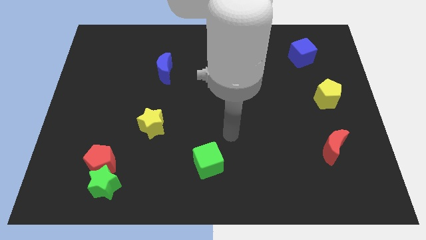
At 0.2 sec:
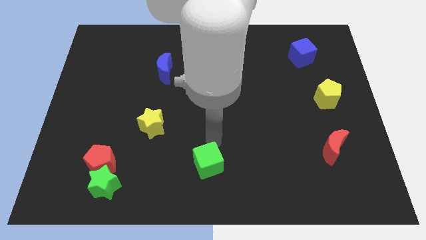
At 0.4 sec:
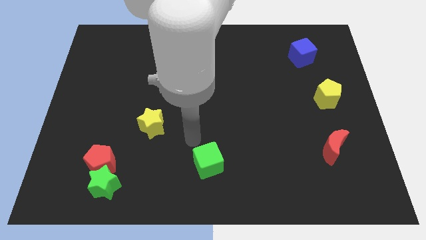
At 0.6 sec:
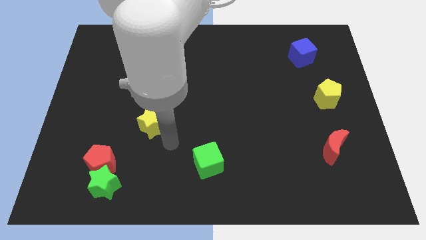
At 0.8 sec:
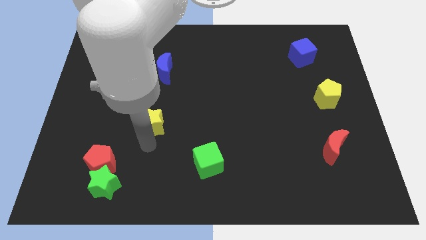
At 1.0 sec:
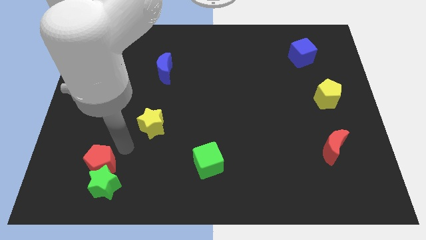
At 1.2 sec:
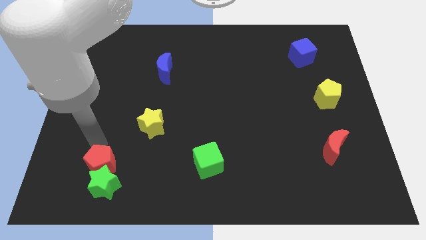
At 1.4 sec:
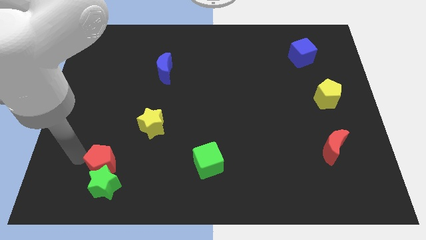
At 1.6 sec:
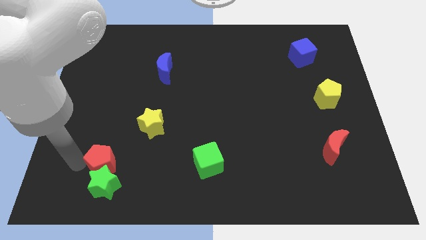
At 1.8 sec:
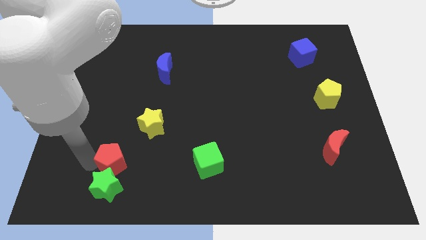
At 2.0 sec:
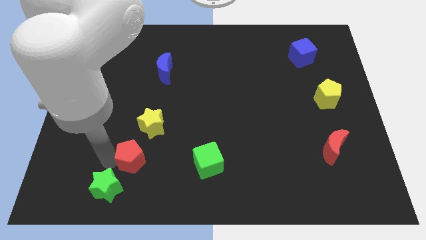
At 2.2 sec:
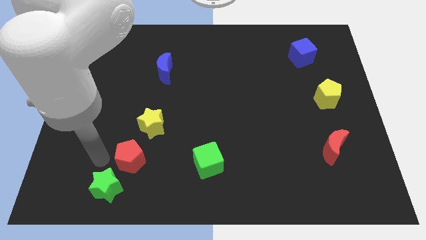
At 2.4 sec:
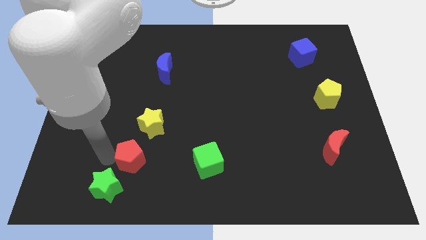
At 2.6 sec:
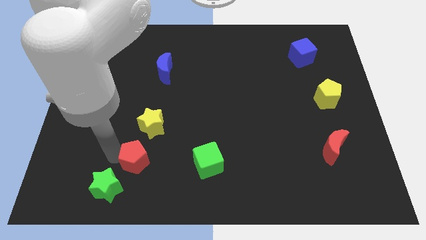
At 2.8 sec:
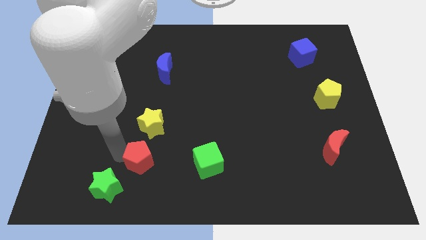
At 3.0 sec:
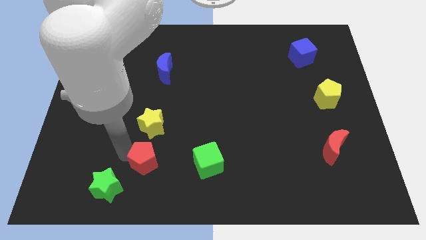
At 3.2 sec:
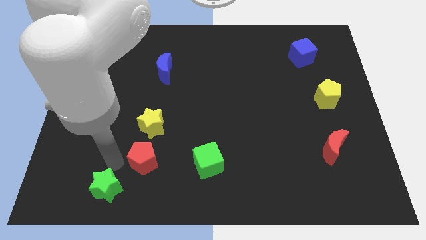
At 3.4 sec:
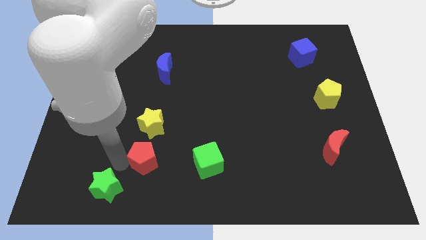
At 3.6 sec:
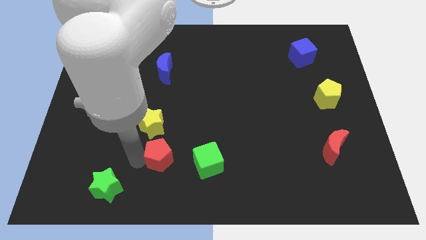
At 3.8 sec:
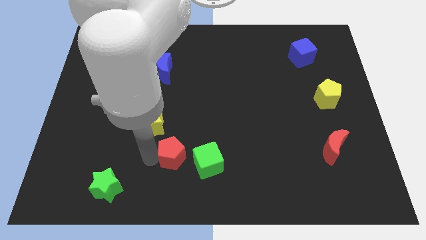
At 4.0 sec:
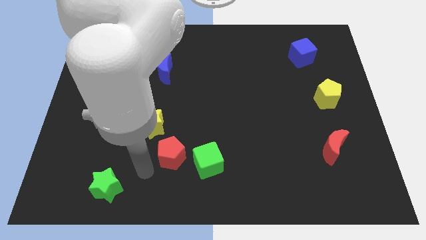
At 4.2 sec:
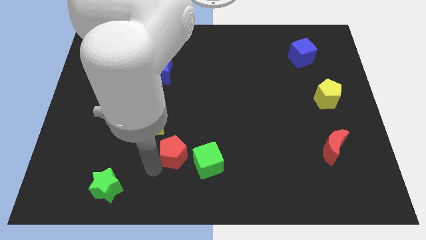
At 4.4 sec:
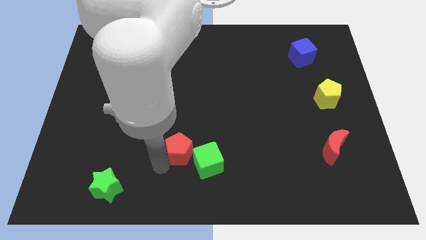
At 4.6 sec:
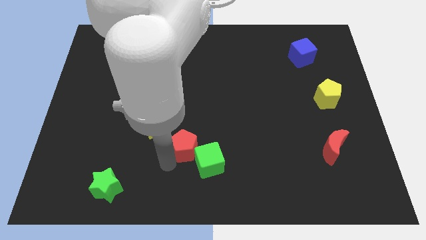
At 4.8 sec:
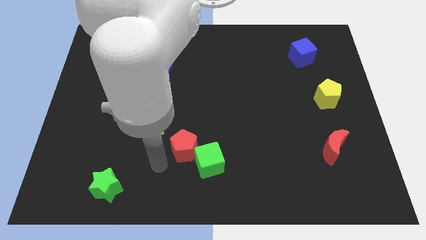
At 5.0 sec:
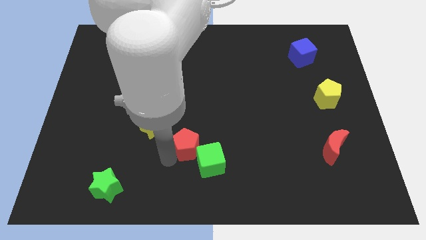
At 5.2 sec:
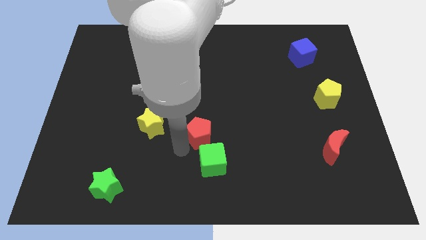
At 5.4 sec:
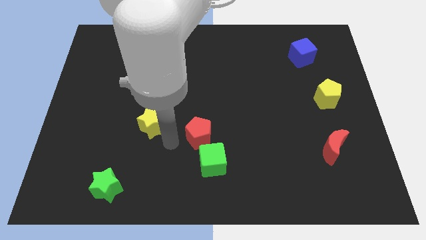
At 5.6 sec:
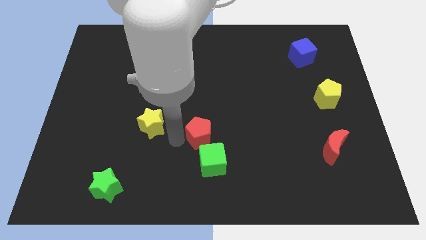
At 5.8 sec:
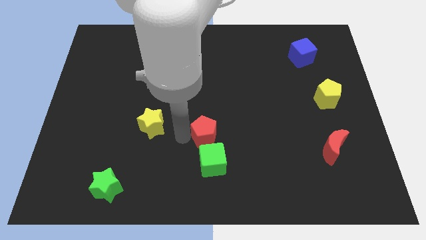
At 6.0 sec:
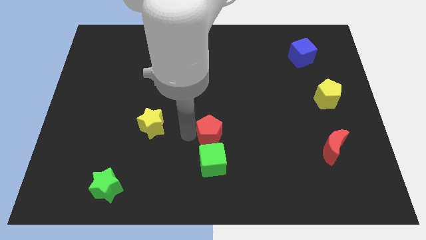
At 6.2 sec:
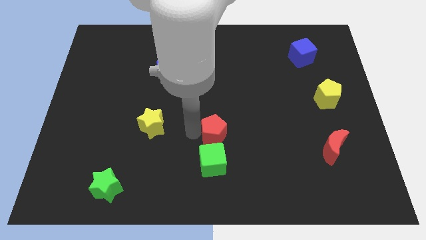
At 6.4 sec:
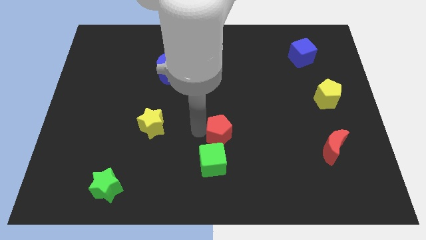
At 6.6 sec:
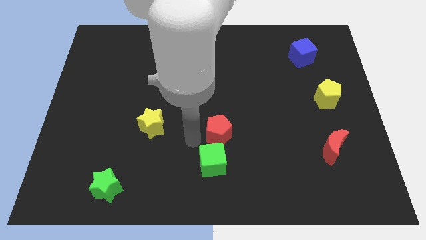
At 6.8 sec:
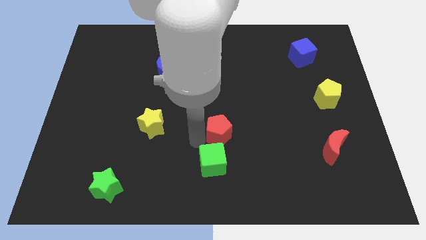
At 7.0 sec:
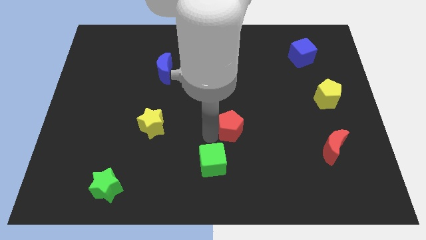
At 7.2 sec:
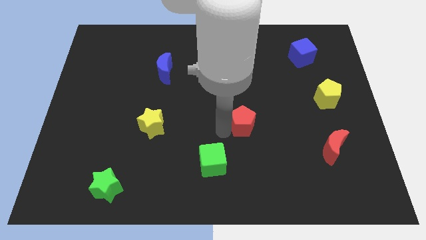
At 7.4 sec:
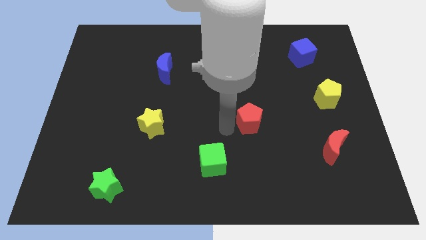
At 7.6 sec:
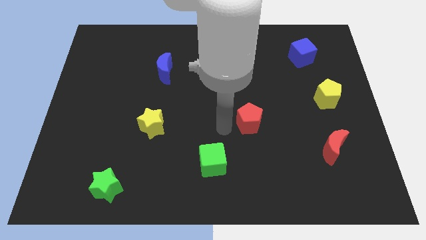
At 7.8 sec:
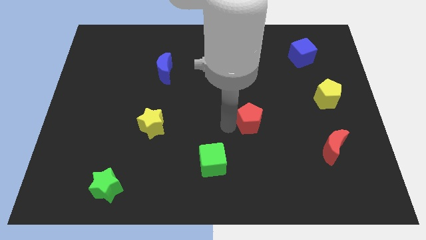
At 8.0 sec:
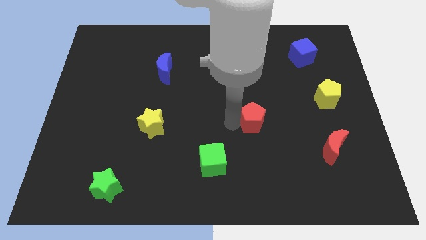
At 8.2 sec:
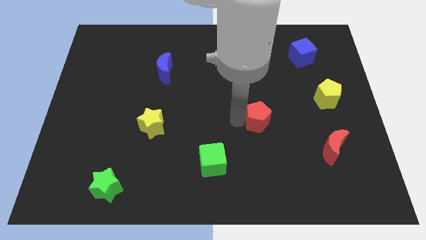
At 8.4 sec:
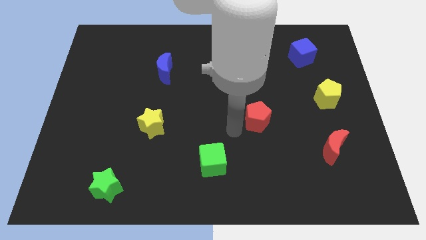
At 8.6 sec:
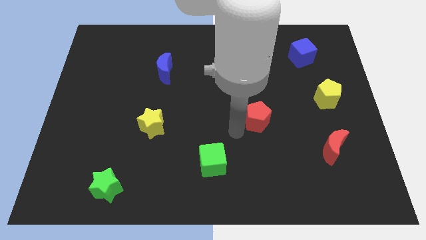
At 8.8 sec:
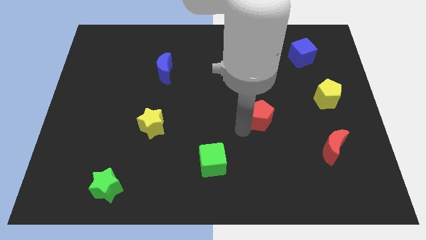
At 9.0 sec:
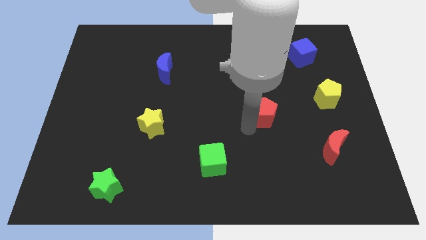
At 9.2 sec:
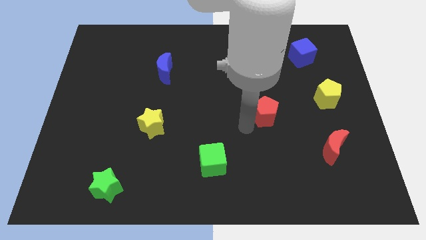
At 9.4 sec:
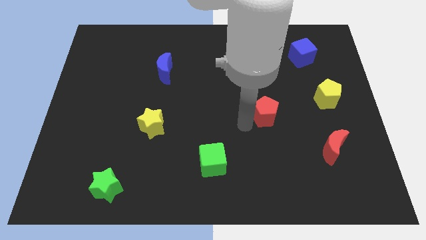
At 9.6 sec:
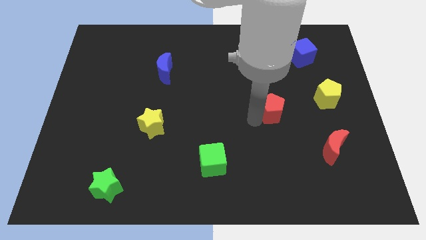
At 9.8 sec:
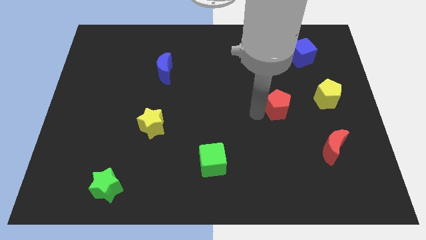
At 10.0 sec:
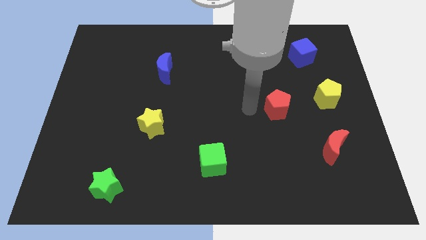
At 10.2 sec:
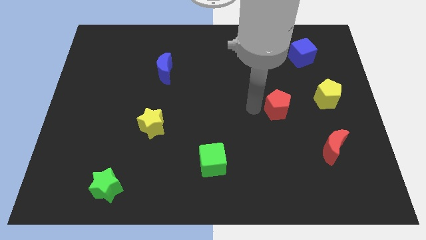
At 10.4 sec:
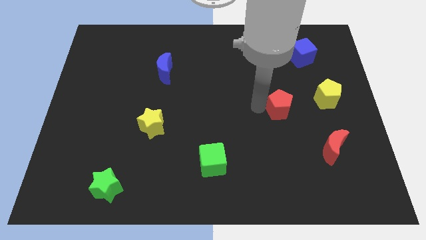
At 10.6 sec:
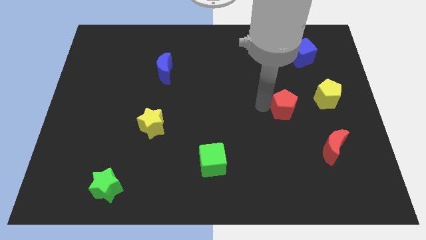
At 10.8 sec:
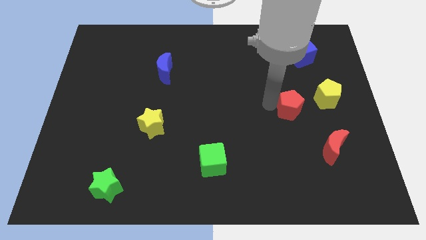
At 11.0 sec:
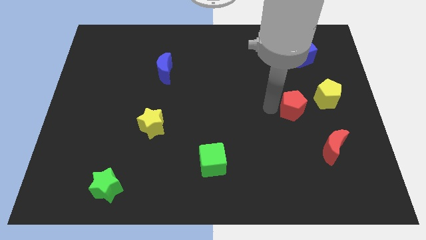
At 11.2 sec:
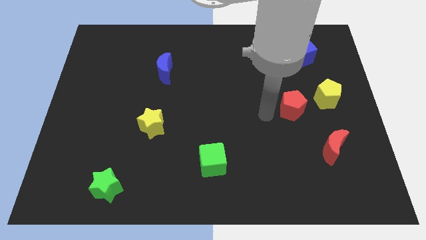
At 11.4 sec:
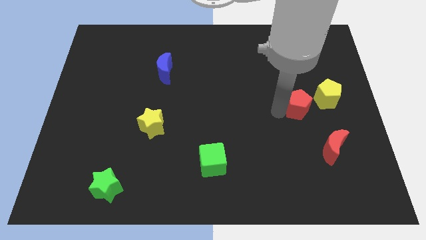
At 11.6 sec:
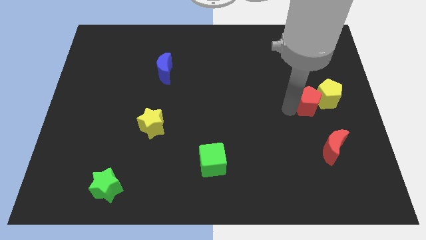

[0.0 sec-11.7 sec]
put the red pentagon towards the yellow pentagon

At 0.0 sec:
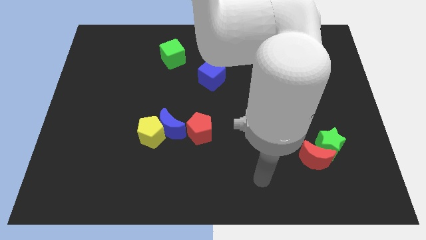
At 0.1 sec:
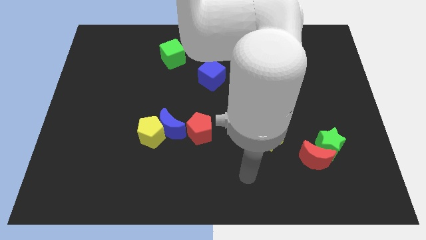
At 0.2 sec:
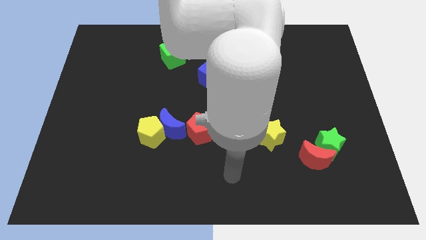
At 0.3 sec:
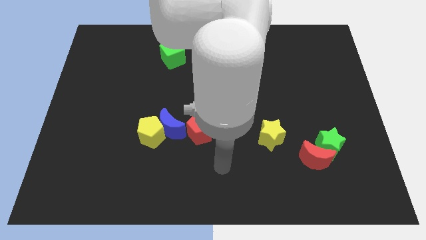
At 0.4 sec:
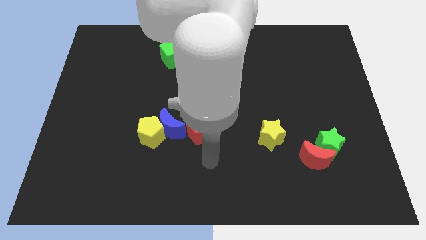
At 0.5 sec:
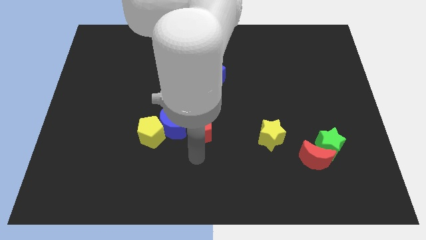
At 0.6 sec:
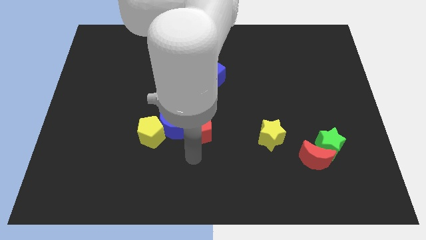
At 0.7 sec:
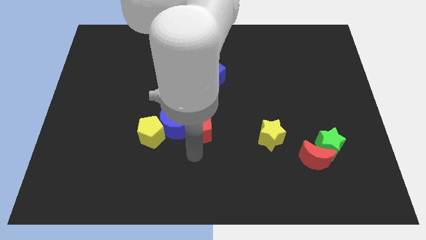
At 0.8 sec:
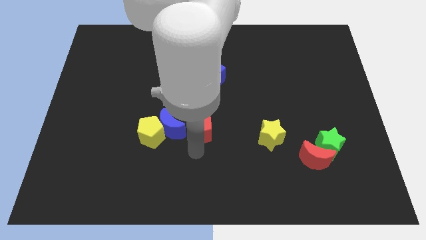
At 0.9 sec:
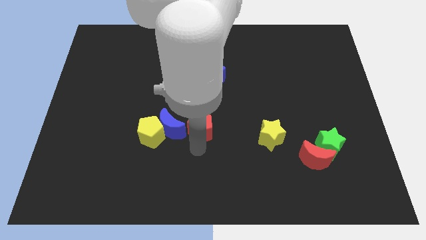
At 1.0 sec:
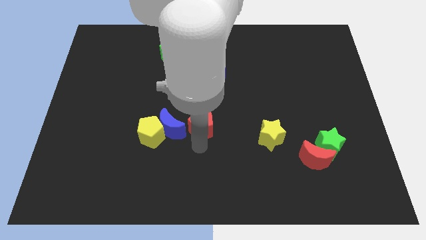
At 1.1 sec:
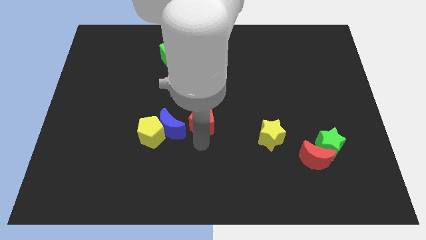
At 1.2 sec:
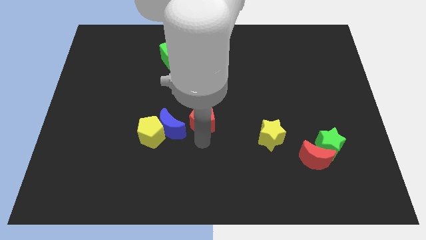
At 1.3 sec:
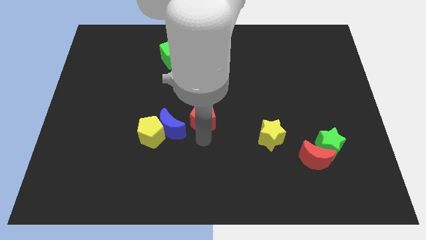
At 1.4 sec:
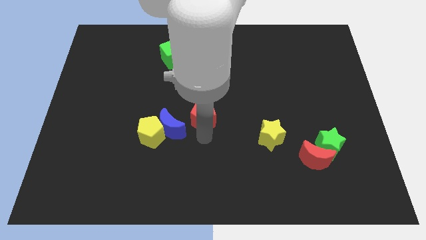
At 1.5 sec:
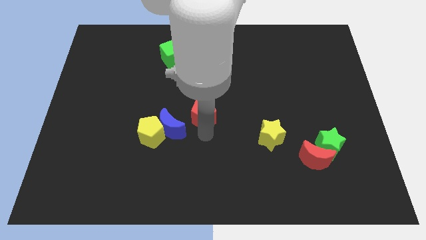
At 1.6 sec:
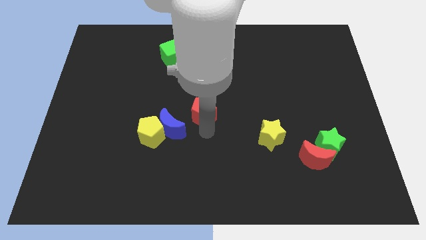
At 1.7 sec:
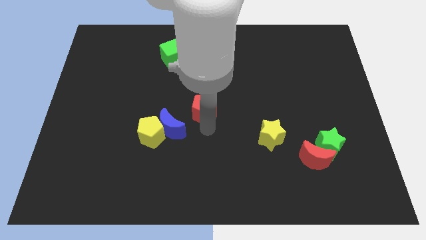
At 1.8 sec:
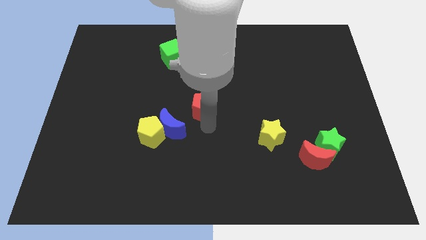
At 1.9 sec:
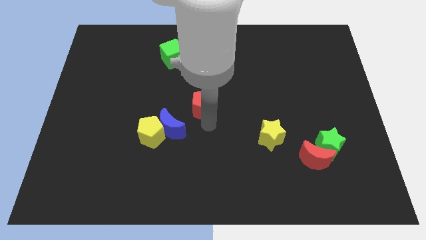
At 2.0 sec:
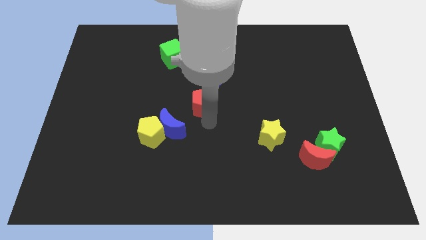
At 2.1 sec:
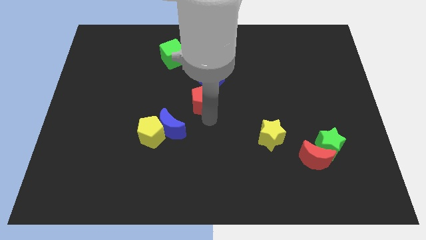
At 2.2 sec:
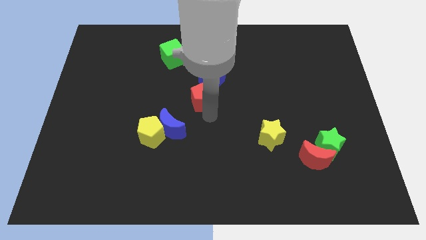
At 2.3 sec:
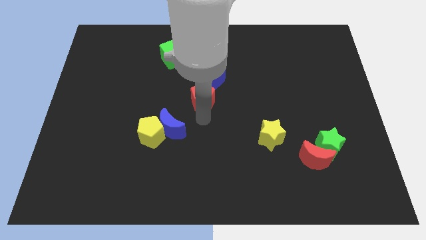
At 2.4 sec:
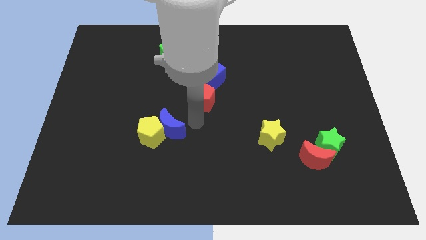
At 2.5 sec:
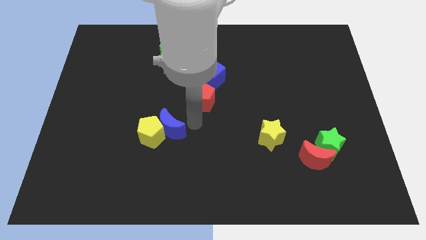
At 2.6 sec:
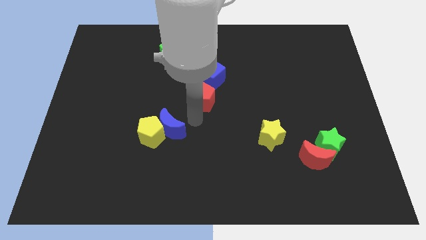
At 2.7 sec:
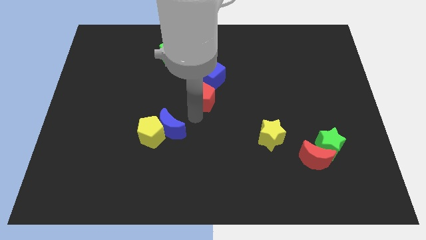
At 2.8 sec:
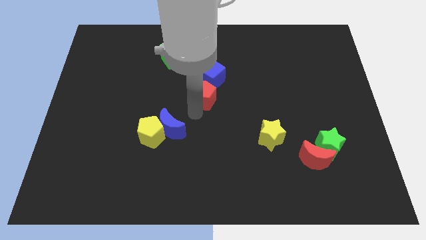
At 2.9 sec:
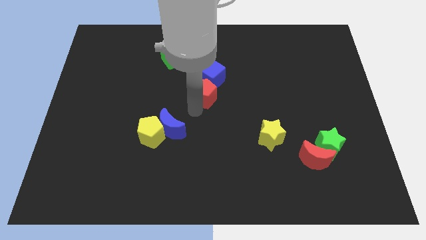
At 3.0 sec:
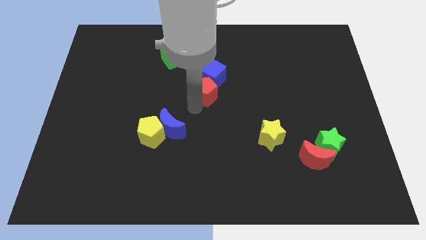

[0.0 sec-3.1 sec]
move the red pentagon to the blue cube
